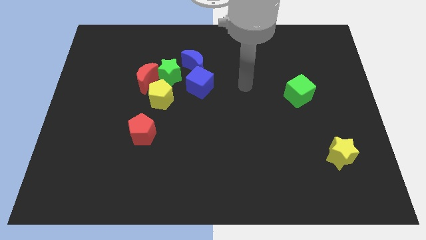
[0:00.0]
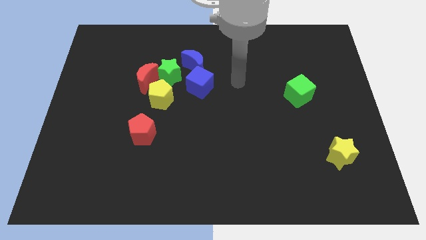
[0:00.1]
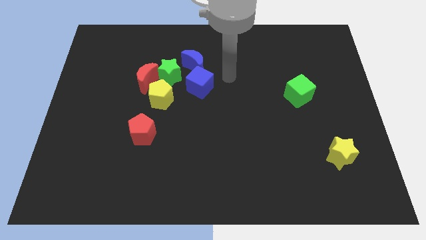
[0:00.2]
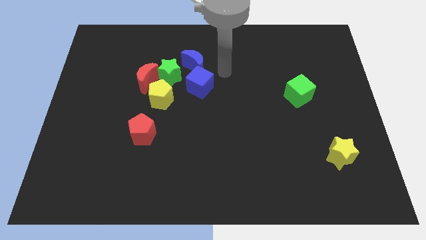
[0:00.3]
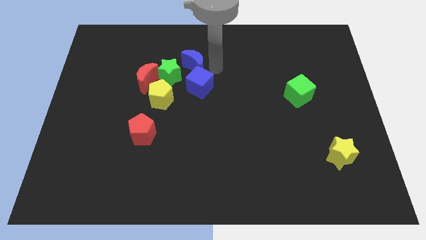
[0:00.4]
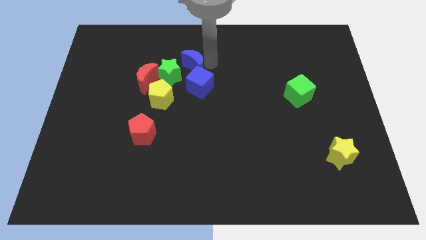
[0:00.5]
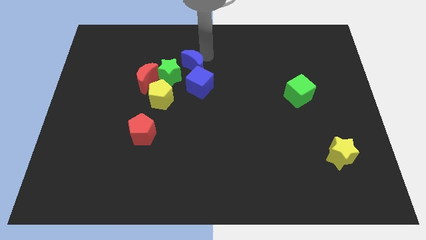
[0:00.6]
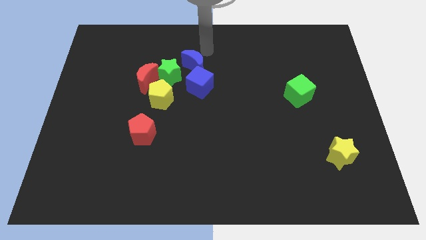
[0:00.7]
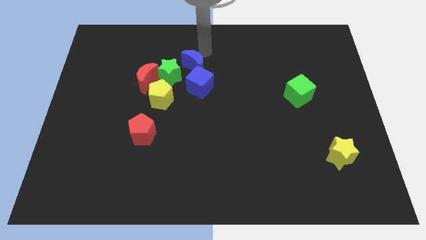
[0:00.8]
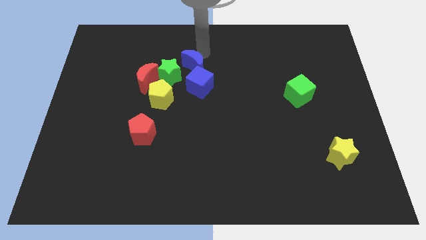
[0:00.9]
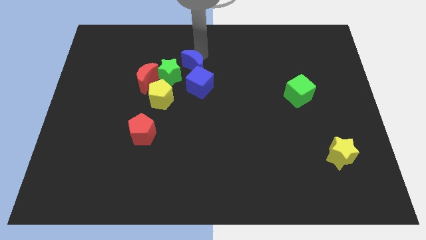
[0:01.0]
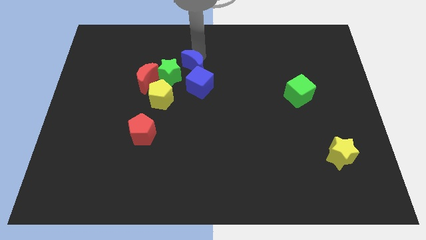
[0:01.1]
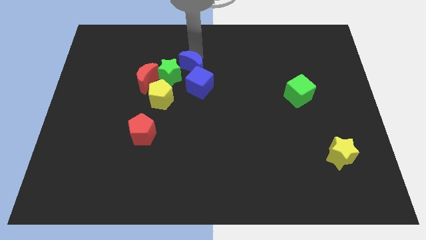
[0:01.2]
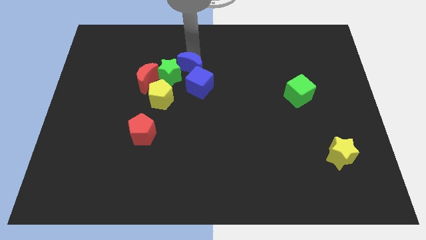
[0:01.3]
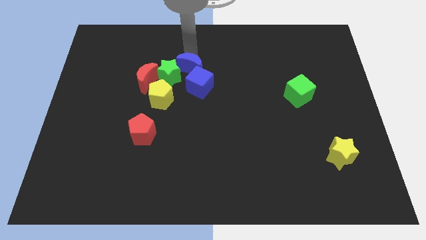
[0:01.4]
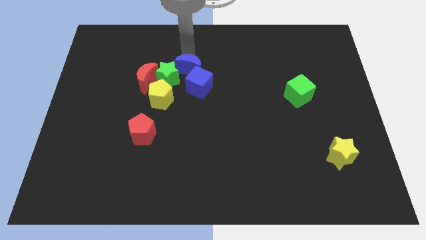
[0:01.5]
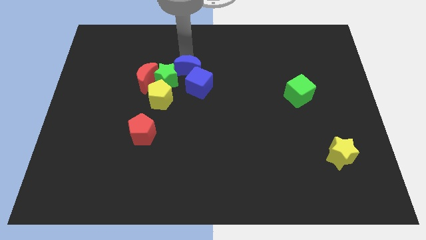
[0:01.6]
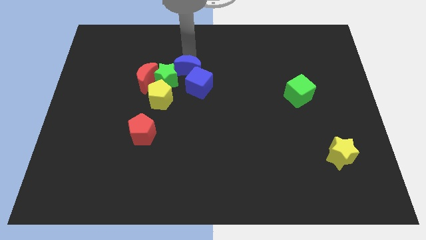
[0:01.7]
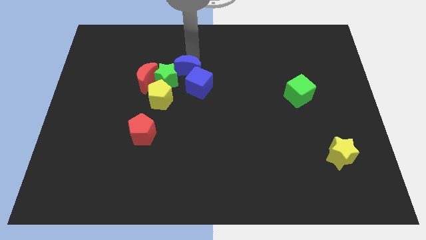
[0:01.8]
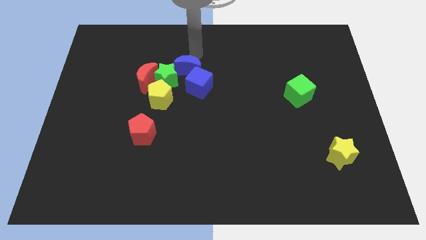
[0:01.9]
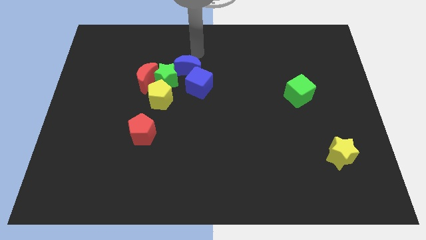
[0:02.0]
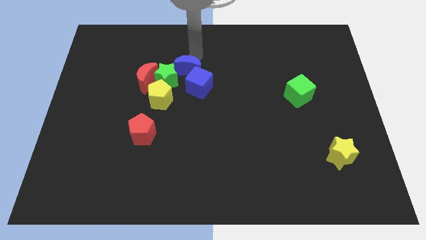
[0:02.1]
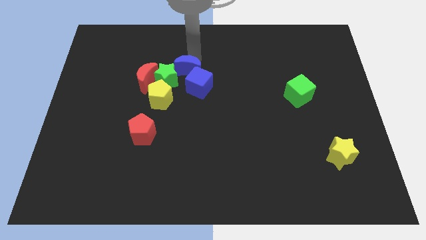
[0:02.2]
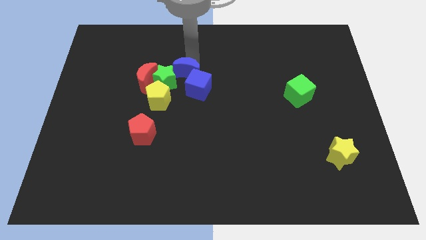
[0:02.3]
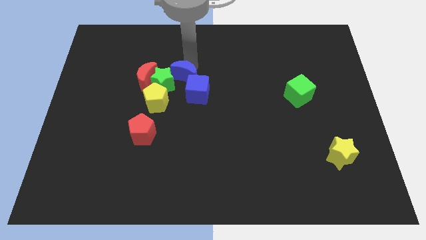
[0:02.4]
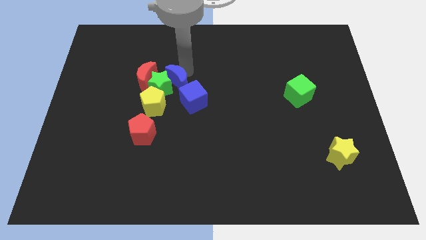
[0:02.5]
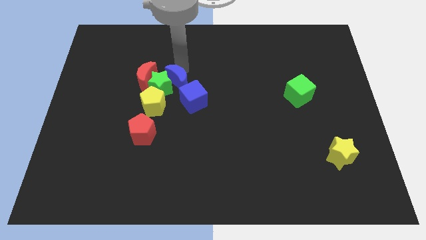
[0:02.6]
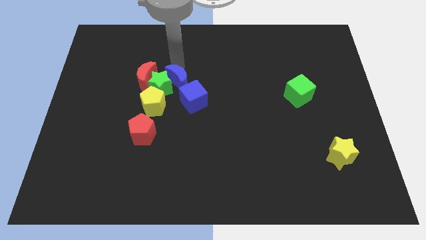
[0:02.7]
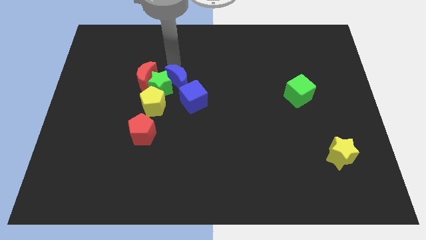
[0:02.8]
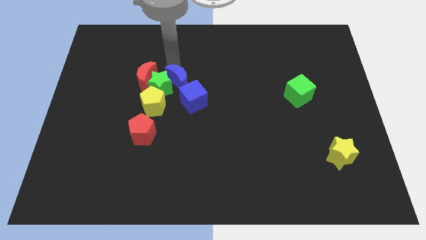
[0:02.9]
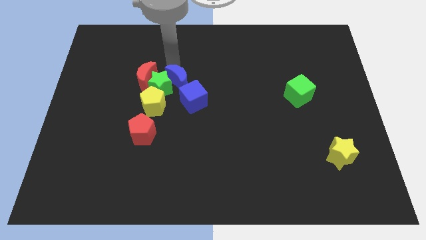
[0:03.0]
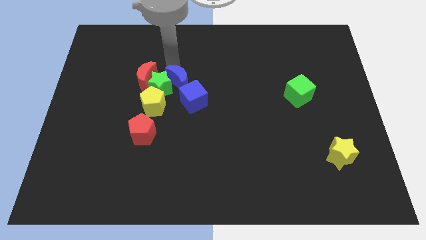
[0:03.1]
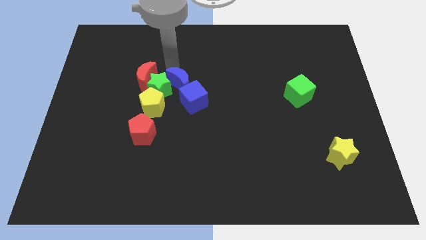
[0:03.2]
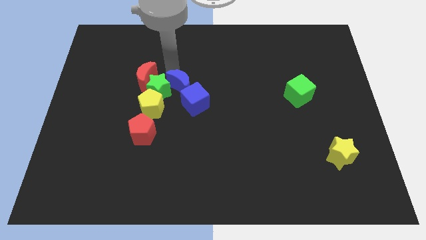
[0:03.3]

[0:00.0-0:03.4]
slightly slide the blue moon down

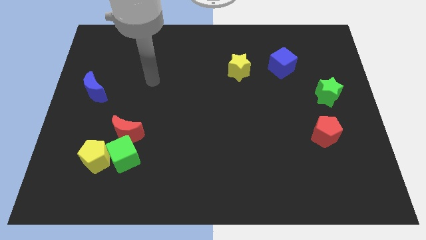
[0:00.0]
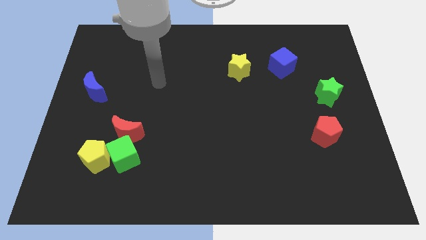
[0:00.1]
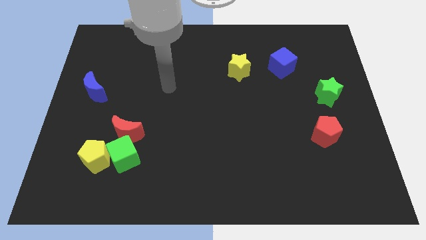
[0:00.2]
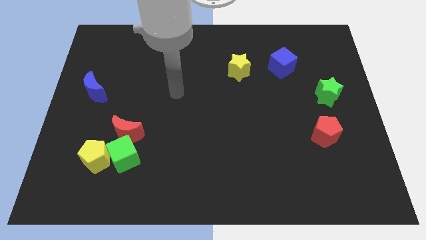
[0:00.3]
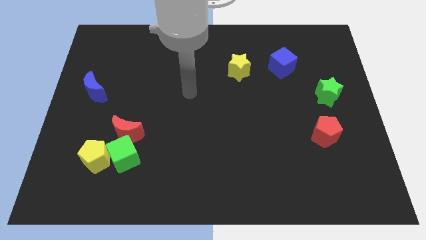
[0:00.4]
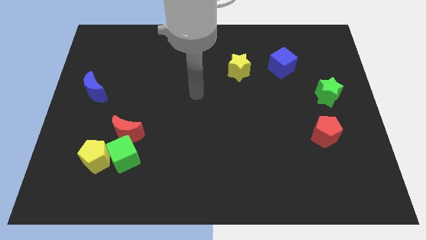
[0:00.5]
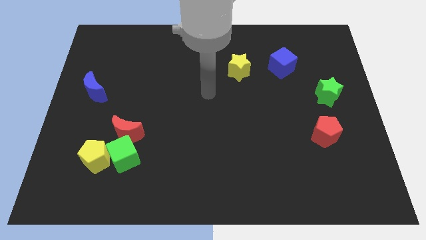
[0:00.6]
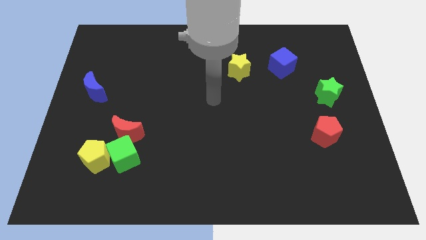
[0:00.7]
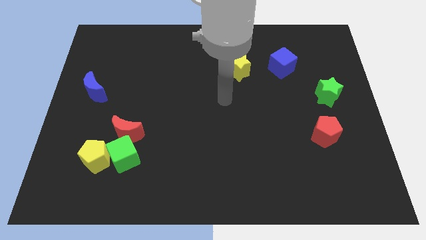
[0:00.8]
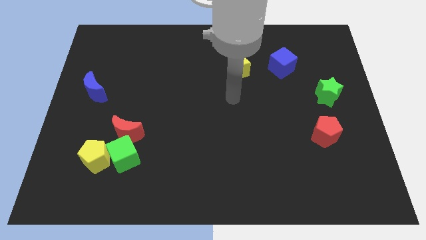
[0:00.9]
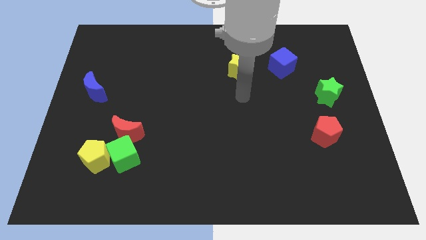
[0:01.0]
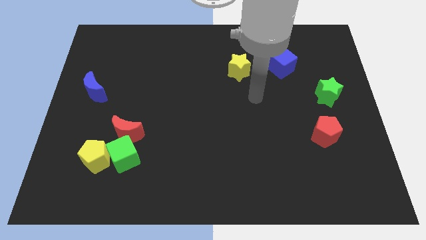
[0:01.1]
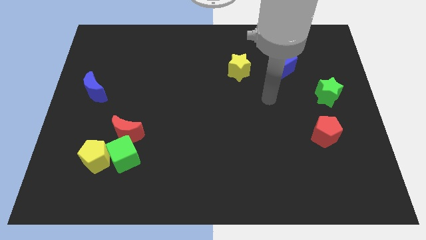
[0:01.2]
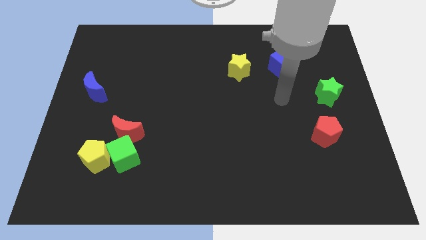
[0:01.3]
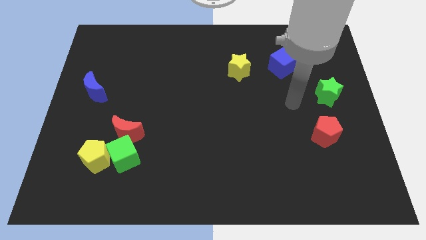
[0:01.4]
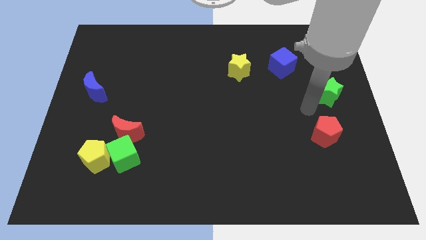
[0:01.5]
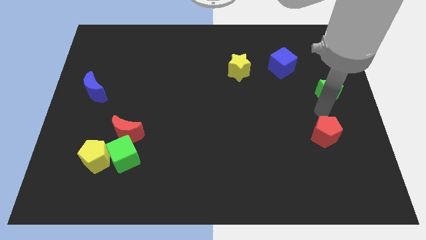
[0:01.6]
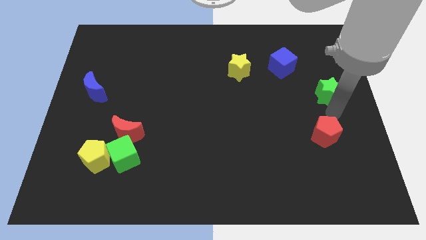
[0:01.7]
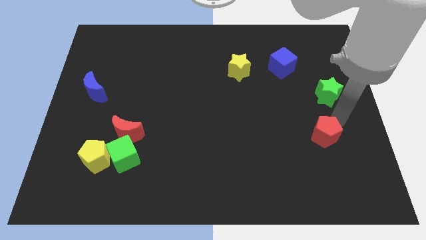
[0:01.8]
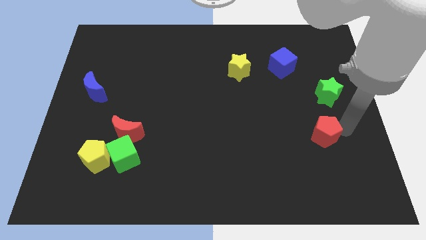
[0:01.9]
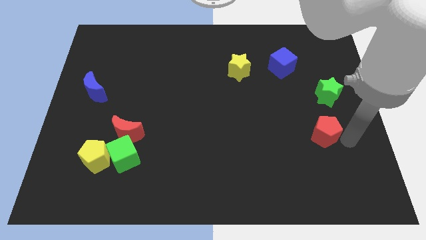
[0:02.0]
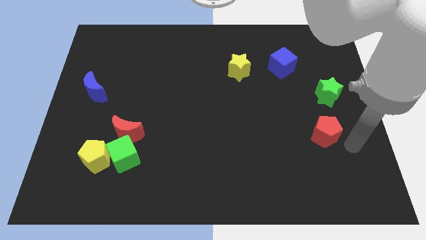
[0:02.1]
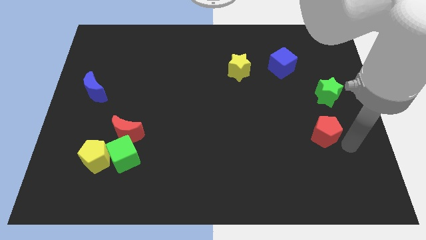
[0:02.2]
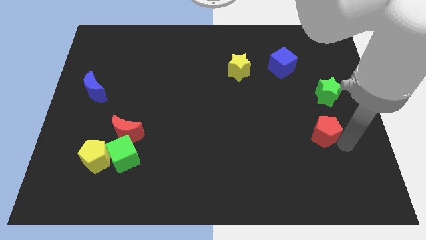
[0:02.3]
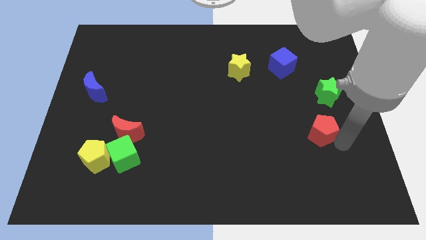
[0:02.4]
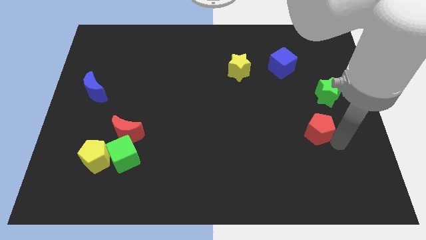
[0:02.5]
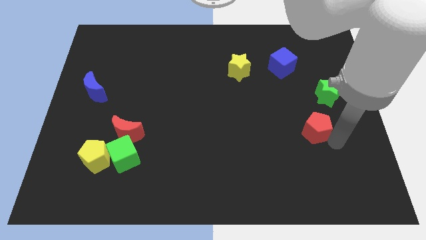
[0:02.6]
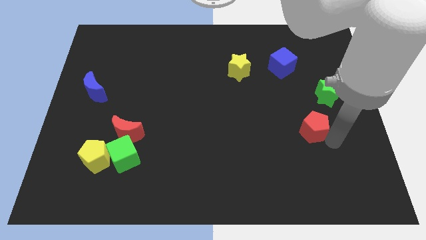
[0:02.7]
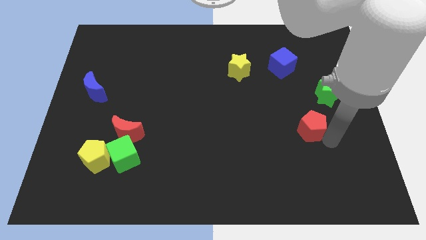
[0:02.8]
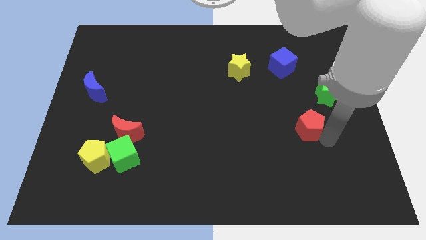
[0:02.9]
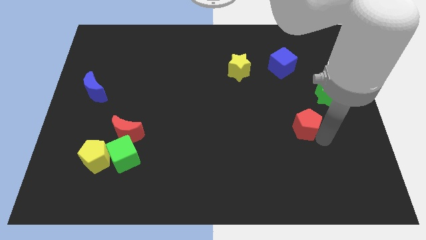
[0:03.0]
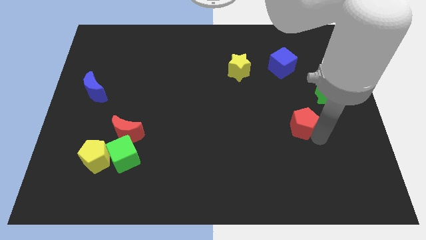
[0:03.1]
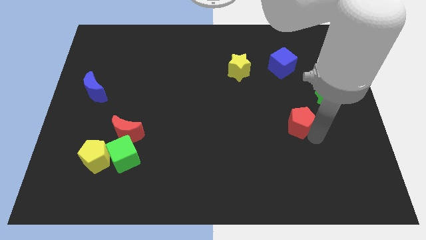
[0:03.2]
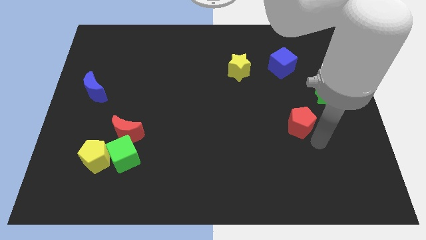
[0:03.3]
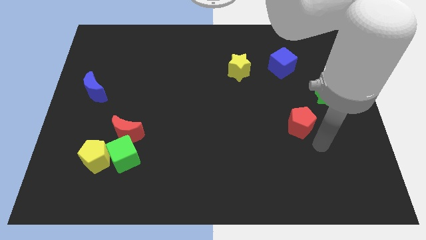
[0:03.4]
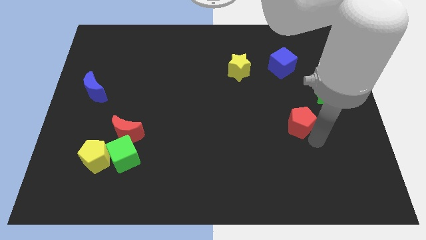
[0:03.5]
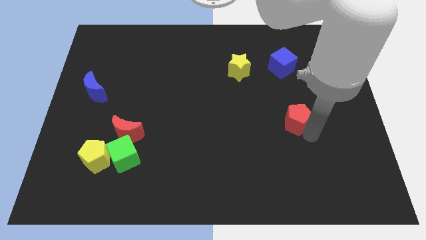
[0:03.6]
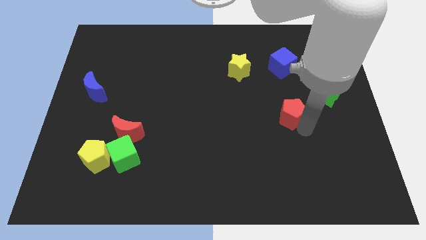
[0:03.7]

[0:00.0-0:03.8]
slide the red pentagon a bit up and then left

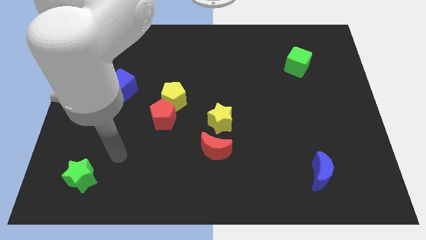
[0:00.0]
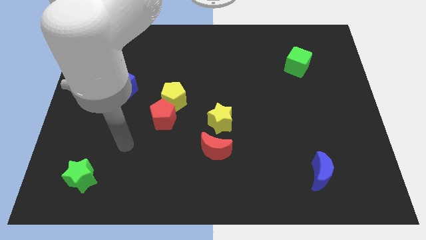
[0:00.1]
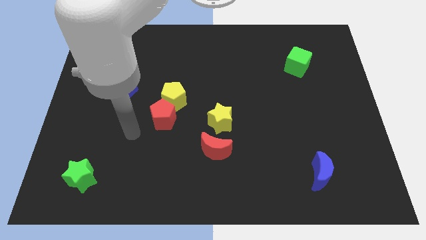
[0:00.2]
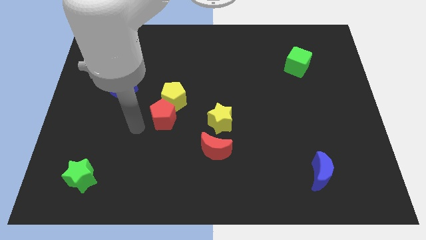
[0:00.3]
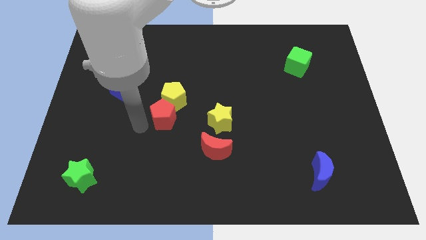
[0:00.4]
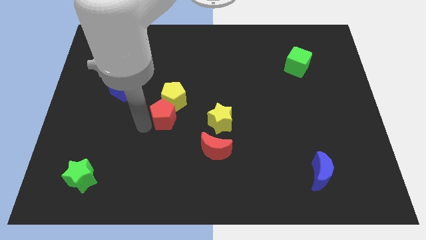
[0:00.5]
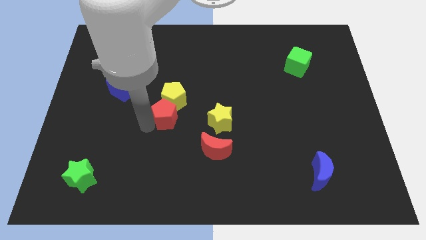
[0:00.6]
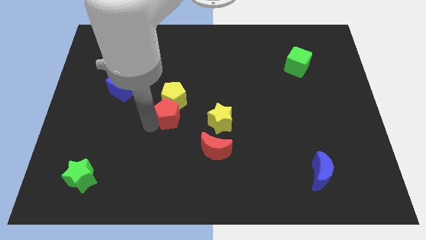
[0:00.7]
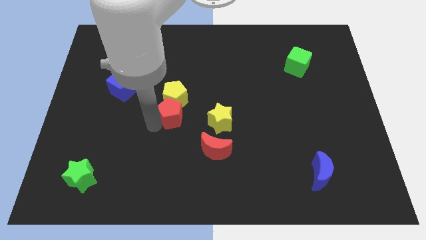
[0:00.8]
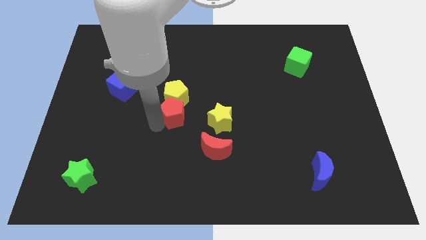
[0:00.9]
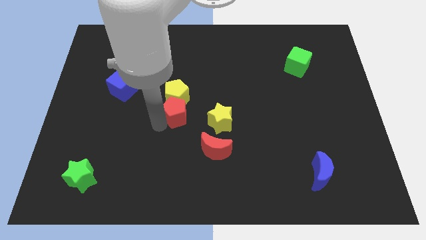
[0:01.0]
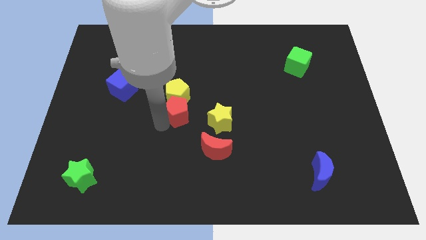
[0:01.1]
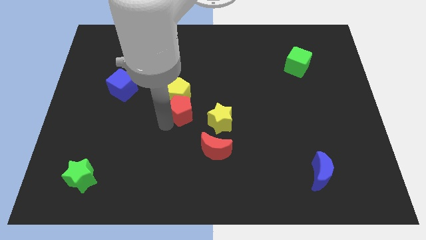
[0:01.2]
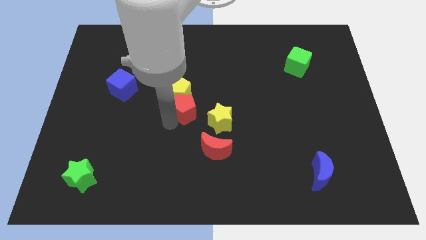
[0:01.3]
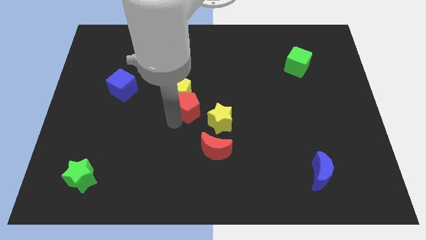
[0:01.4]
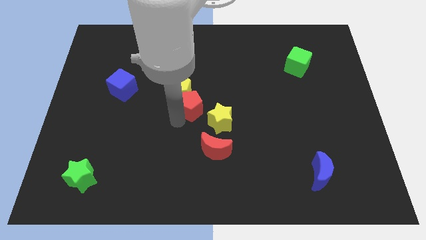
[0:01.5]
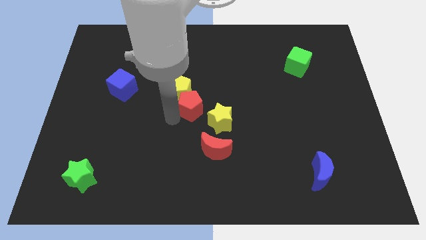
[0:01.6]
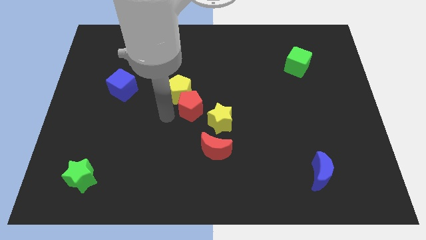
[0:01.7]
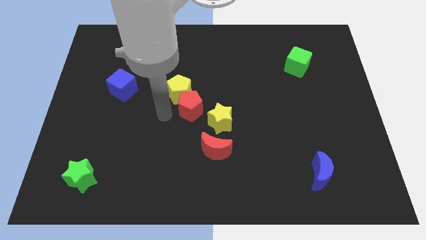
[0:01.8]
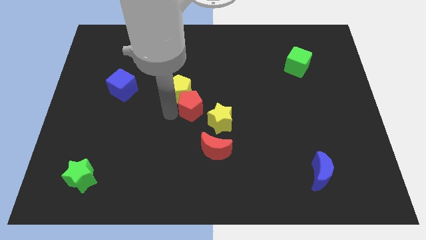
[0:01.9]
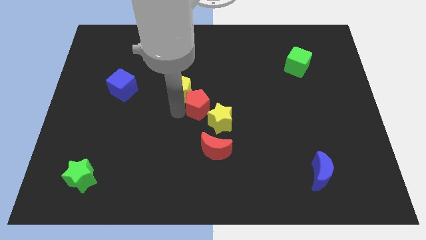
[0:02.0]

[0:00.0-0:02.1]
slide the red pentagon to the right a bit
